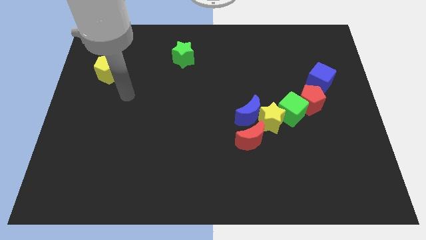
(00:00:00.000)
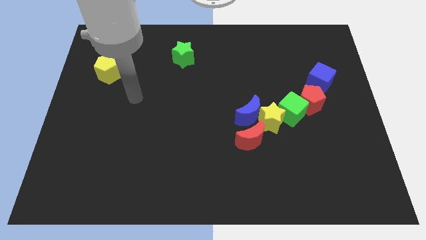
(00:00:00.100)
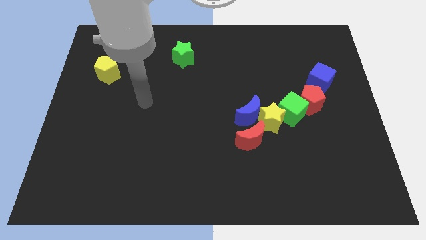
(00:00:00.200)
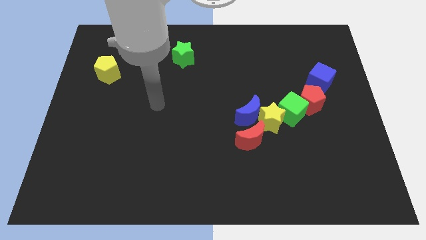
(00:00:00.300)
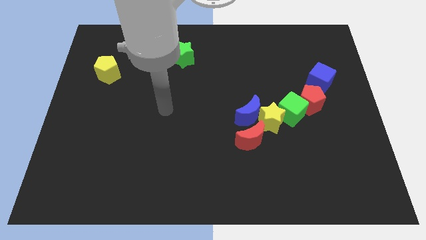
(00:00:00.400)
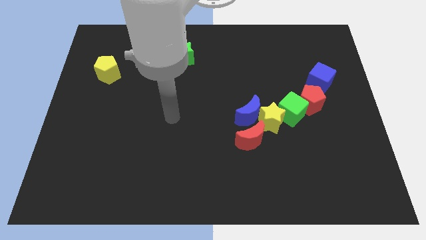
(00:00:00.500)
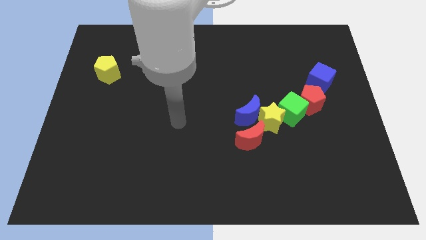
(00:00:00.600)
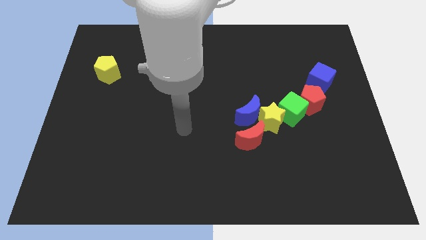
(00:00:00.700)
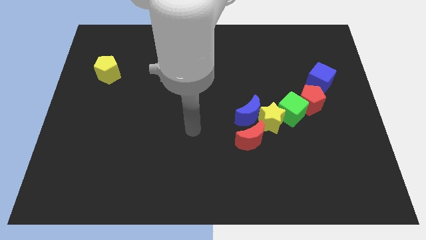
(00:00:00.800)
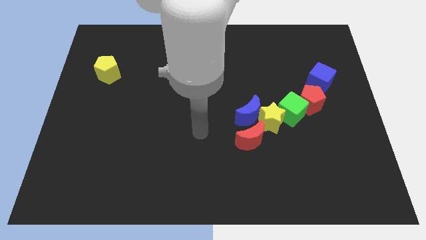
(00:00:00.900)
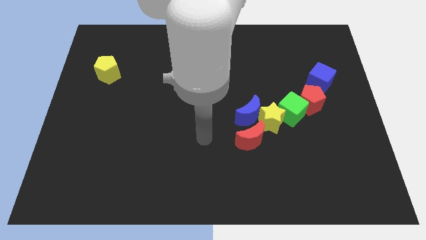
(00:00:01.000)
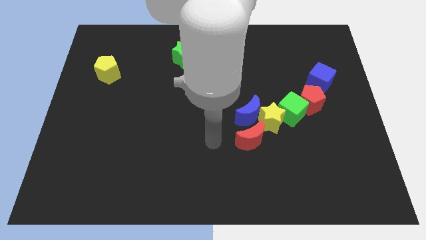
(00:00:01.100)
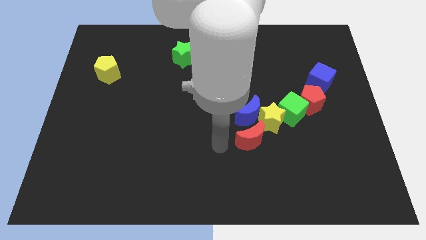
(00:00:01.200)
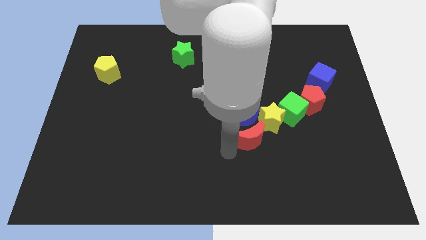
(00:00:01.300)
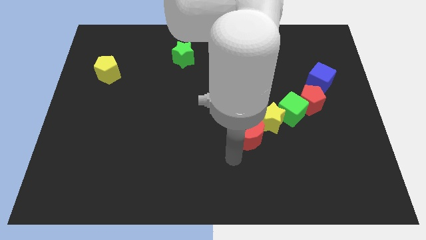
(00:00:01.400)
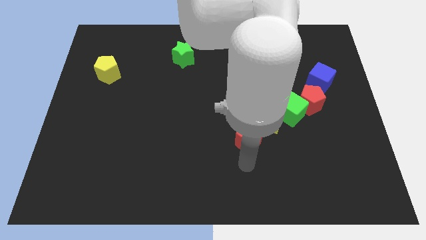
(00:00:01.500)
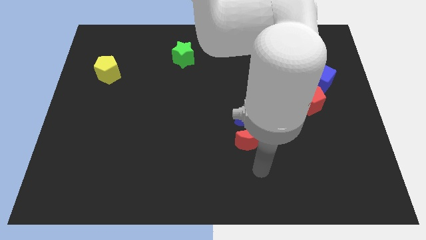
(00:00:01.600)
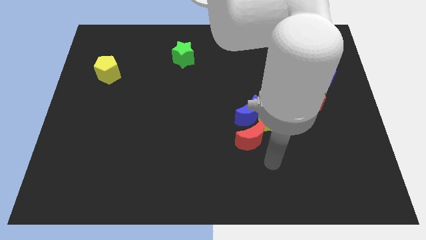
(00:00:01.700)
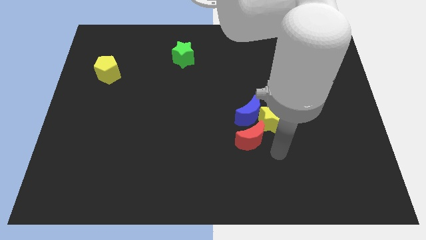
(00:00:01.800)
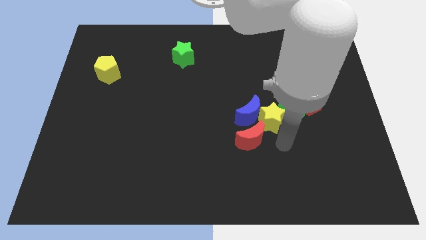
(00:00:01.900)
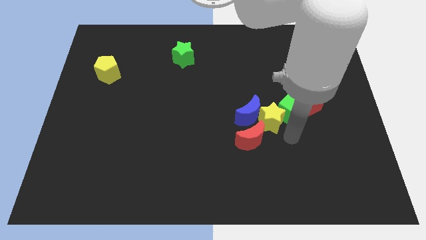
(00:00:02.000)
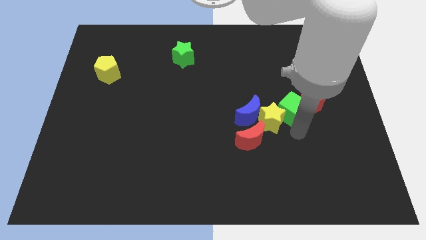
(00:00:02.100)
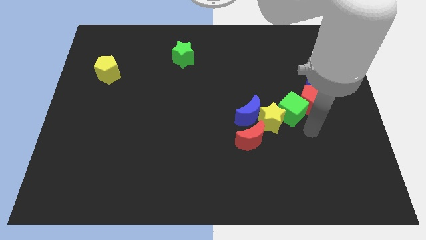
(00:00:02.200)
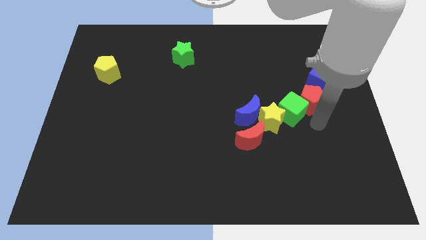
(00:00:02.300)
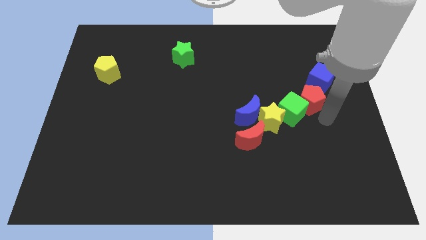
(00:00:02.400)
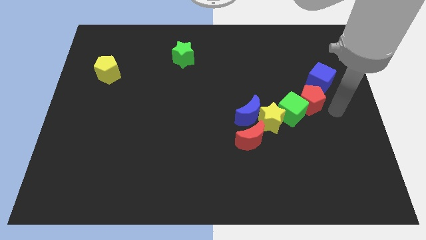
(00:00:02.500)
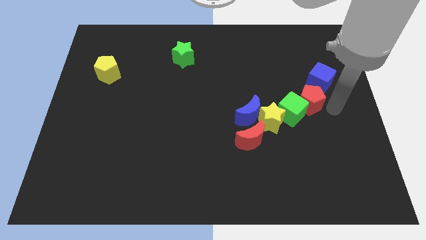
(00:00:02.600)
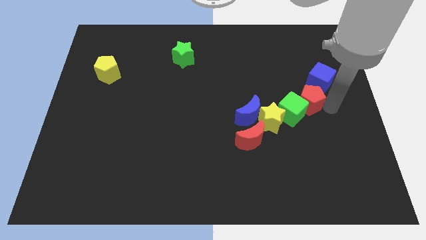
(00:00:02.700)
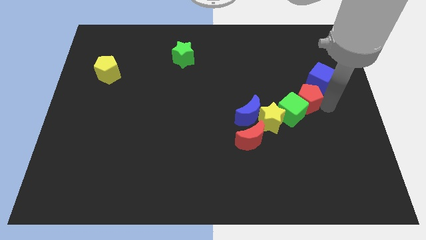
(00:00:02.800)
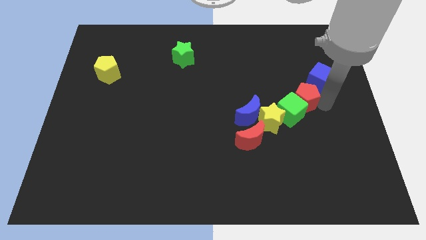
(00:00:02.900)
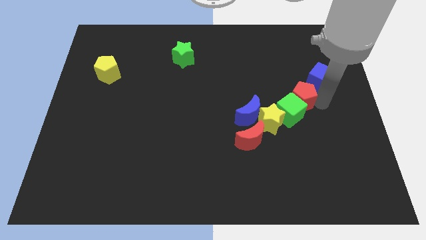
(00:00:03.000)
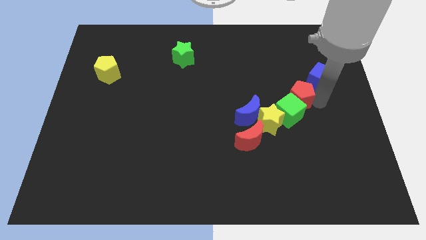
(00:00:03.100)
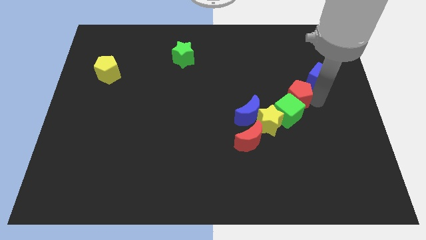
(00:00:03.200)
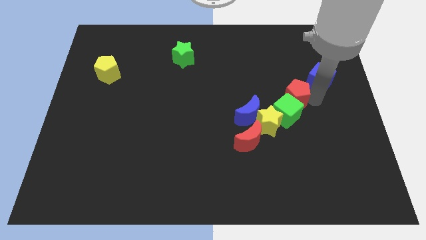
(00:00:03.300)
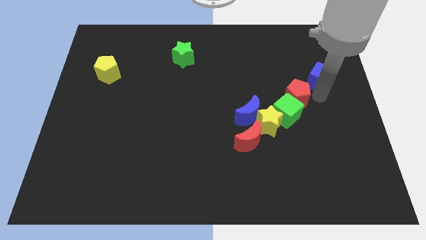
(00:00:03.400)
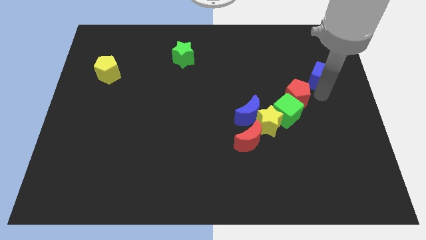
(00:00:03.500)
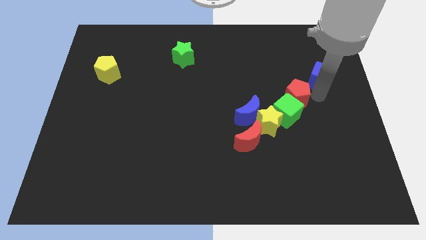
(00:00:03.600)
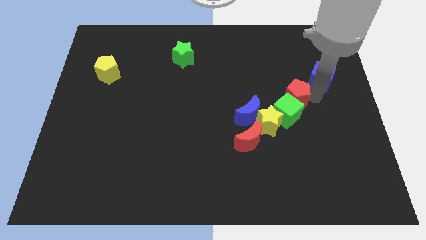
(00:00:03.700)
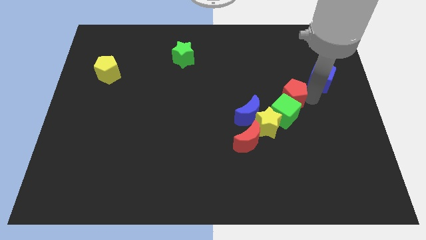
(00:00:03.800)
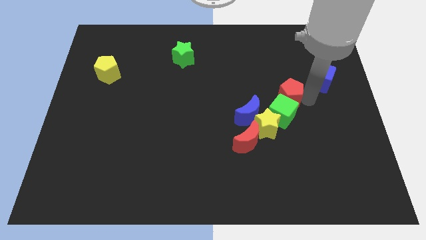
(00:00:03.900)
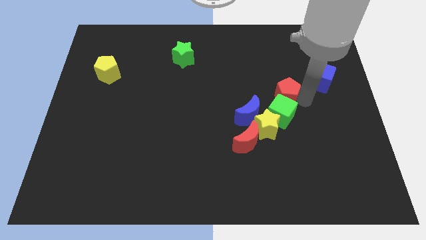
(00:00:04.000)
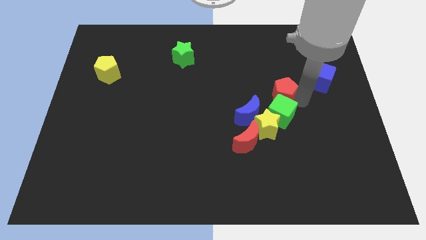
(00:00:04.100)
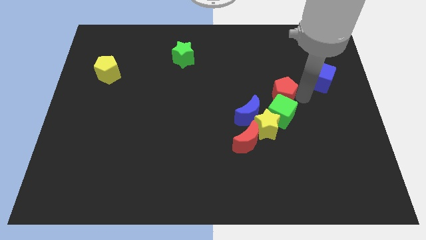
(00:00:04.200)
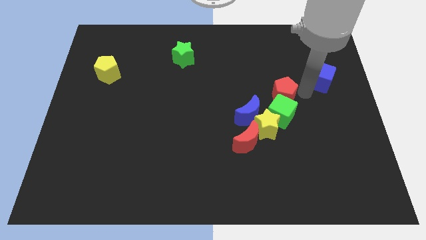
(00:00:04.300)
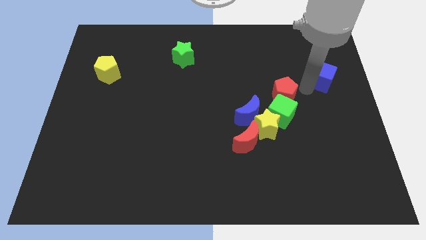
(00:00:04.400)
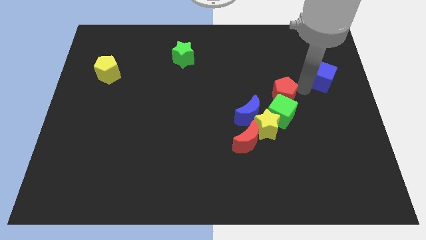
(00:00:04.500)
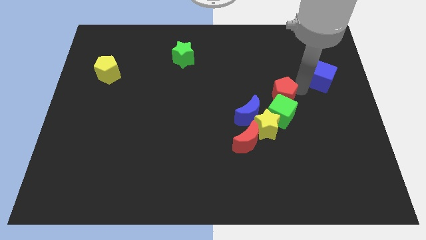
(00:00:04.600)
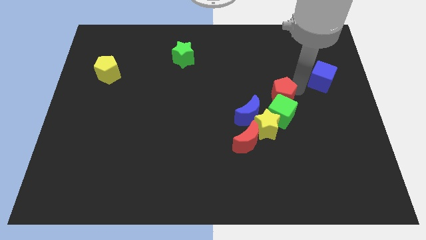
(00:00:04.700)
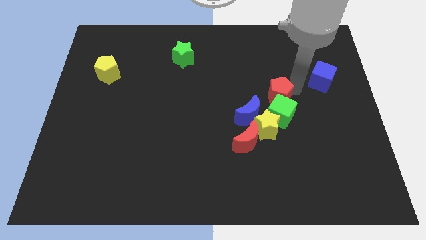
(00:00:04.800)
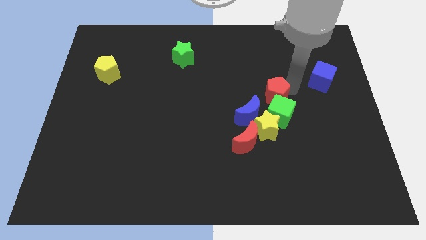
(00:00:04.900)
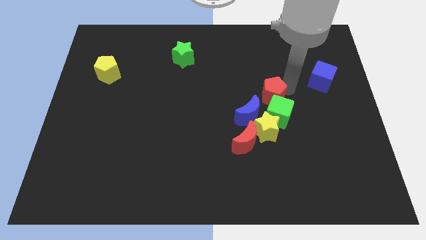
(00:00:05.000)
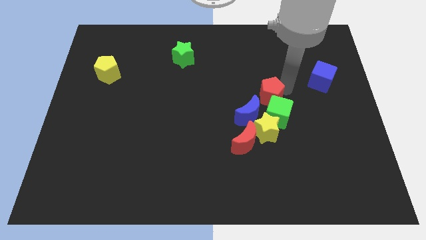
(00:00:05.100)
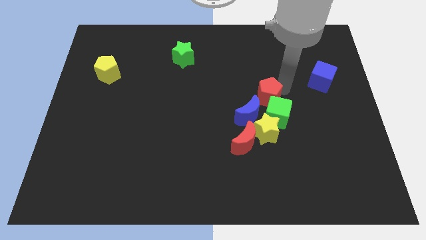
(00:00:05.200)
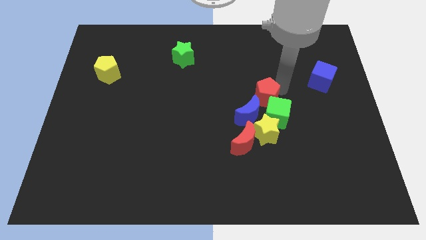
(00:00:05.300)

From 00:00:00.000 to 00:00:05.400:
put the red pentagon to the middle of the board
